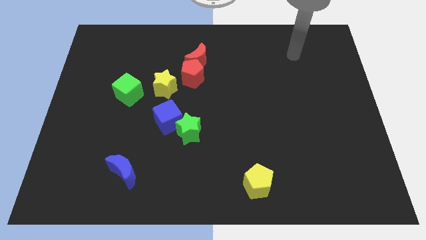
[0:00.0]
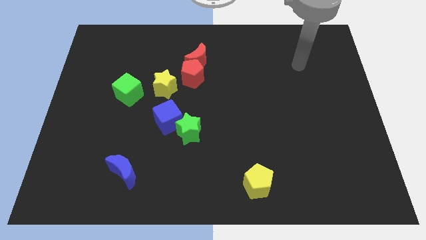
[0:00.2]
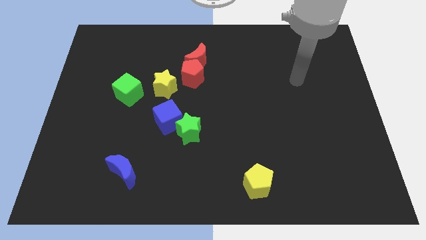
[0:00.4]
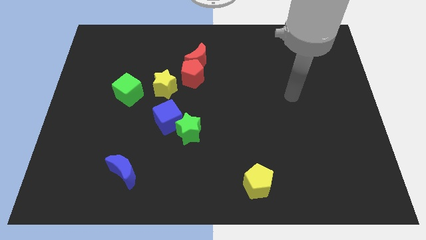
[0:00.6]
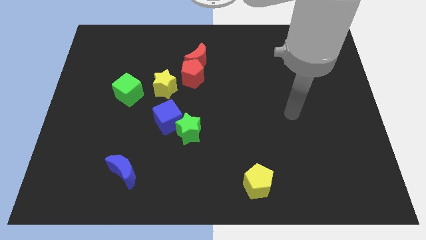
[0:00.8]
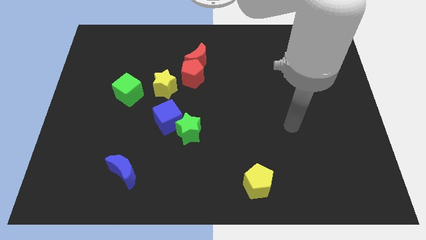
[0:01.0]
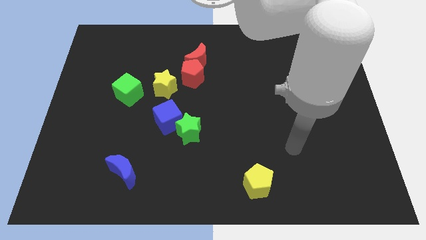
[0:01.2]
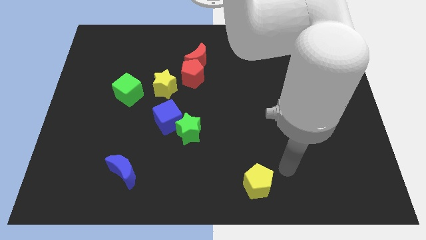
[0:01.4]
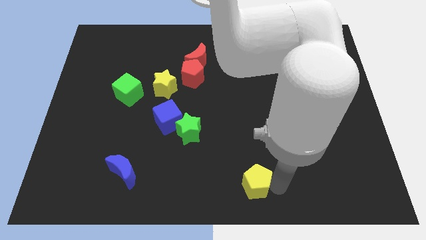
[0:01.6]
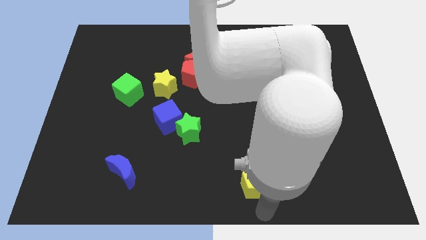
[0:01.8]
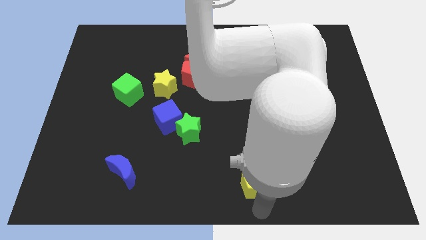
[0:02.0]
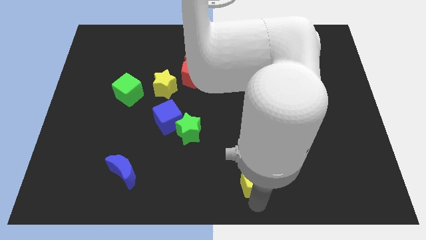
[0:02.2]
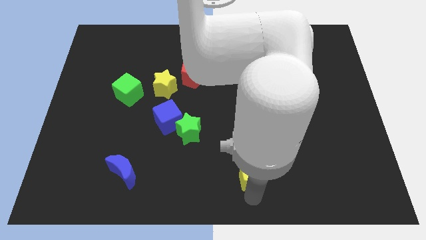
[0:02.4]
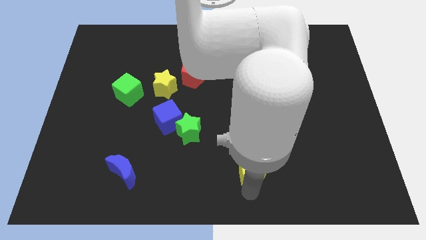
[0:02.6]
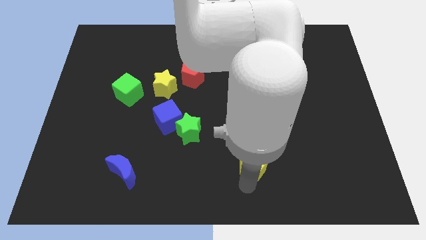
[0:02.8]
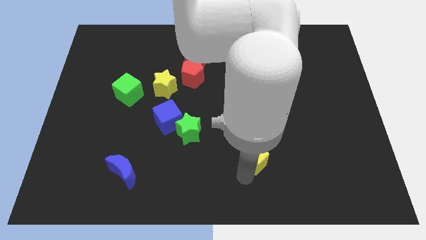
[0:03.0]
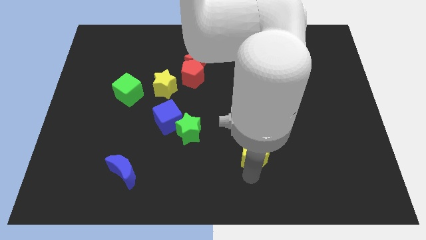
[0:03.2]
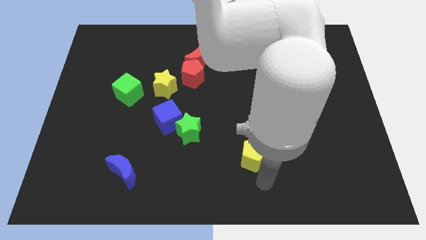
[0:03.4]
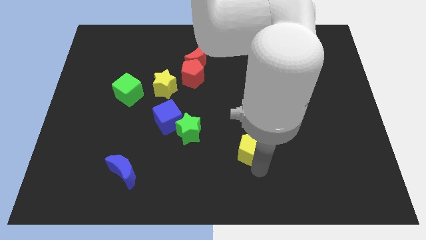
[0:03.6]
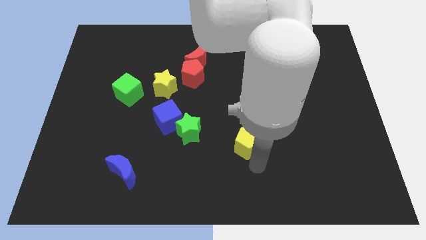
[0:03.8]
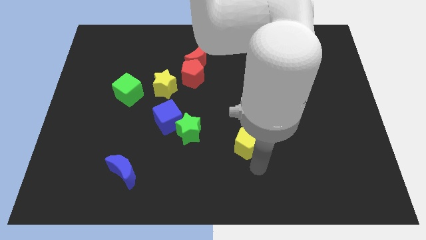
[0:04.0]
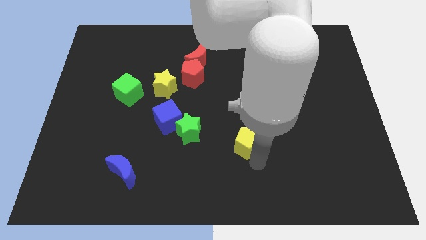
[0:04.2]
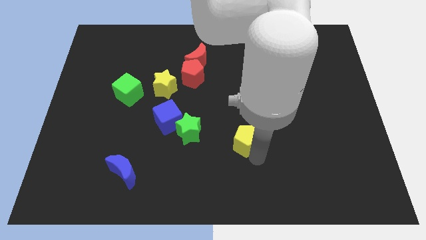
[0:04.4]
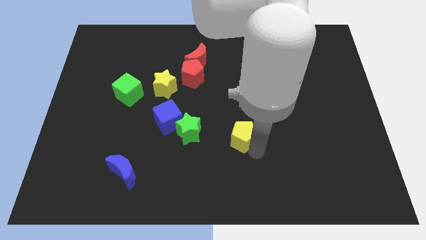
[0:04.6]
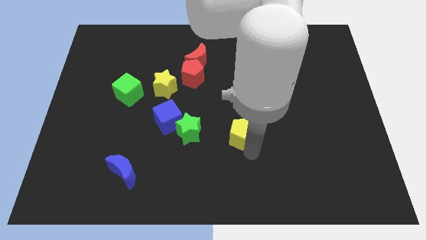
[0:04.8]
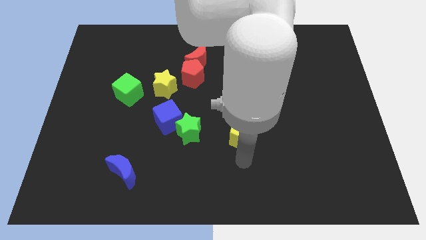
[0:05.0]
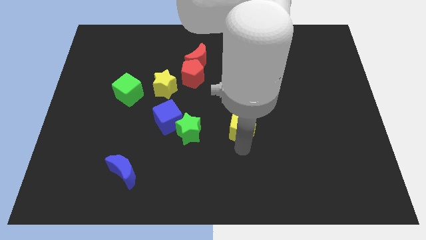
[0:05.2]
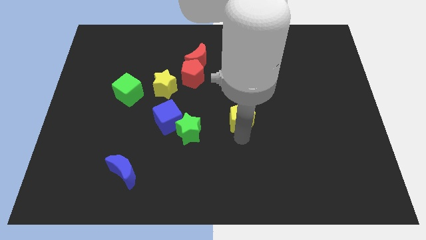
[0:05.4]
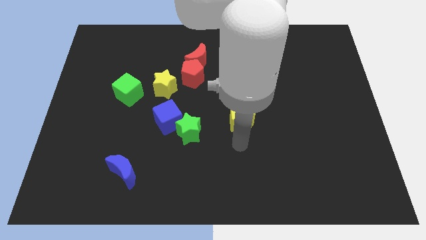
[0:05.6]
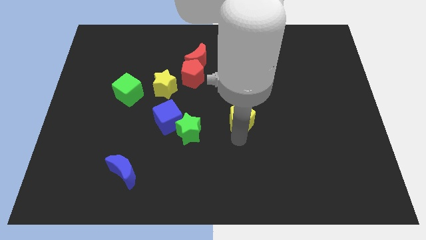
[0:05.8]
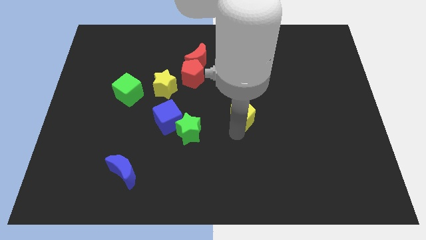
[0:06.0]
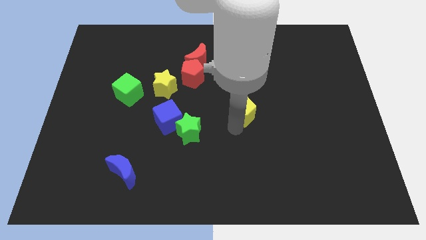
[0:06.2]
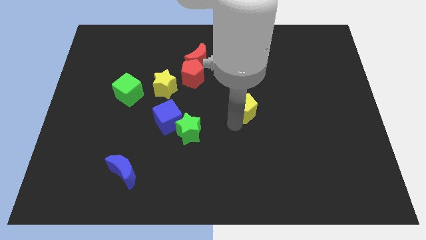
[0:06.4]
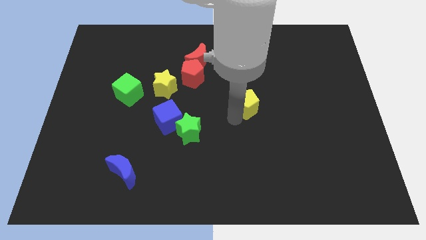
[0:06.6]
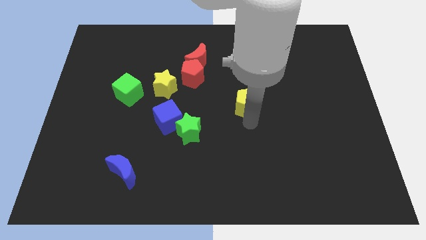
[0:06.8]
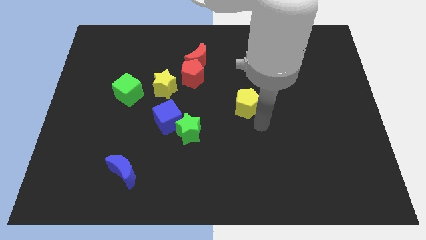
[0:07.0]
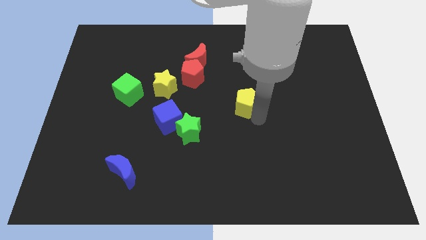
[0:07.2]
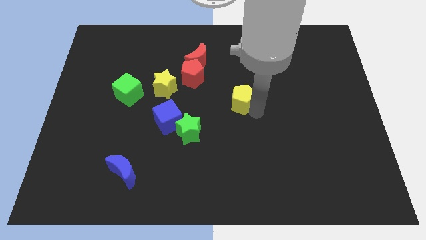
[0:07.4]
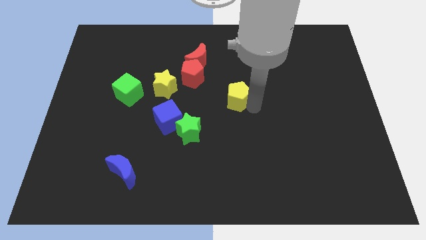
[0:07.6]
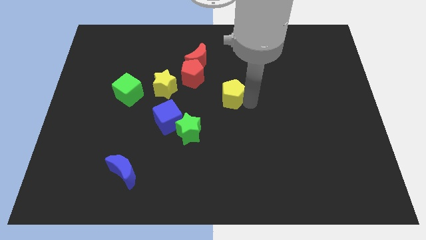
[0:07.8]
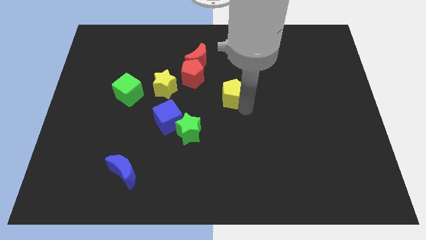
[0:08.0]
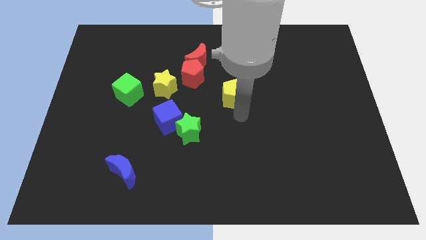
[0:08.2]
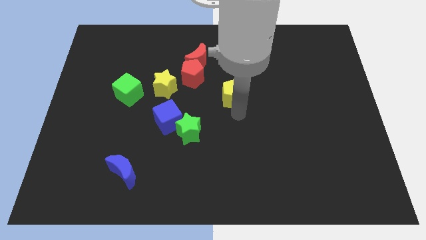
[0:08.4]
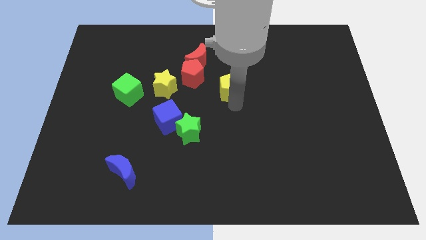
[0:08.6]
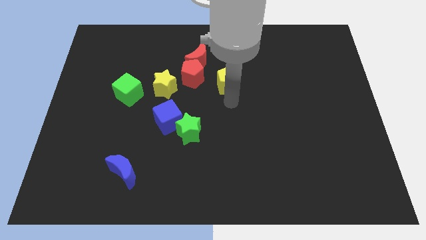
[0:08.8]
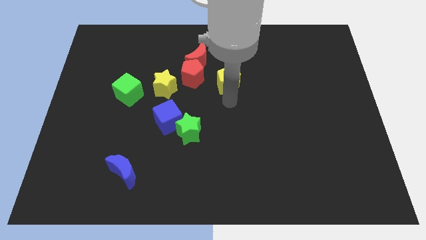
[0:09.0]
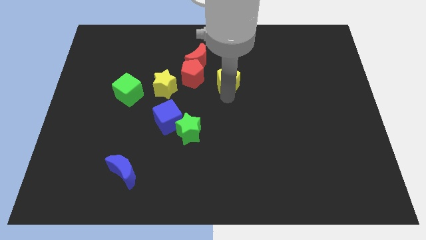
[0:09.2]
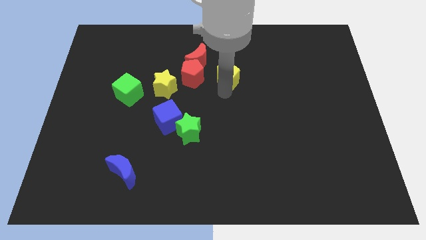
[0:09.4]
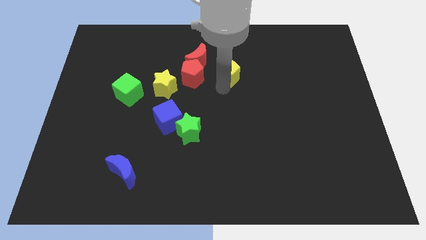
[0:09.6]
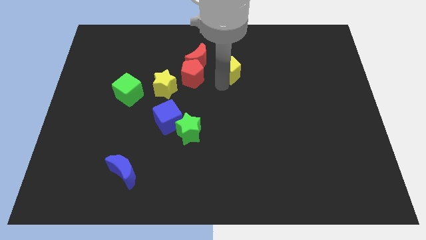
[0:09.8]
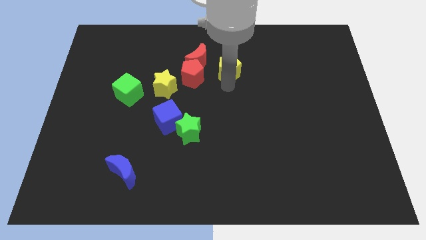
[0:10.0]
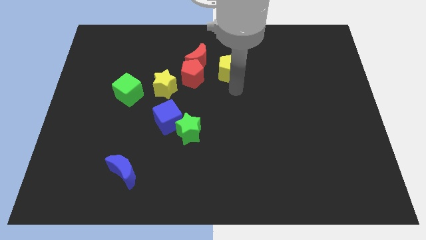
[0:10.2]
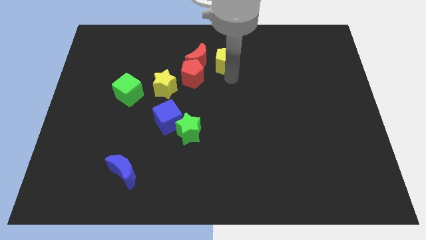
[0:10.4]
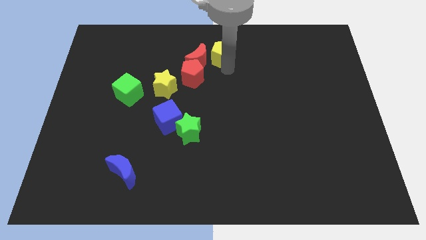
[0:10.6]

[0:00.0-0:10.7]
put the yellow pentagon to the top side
